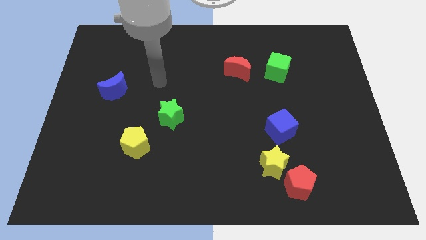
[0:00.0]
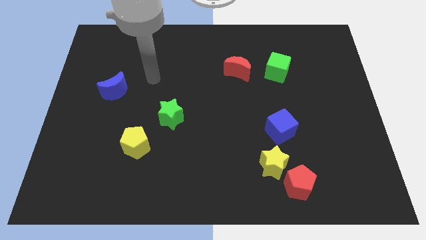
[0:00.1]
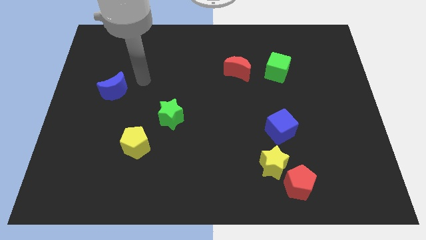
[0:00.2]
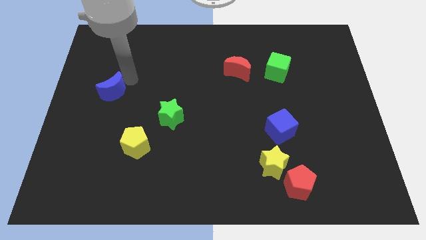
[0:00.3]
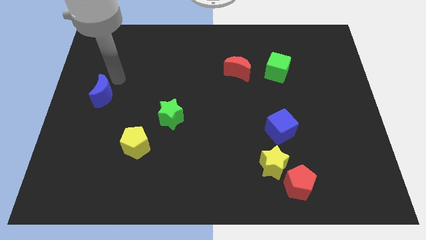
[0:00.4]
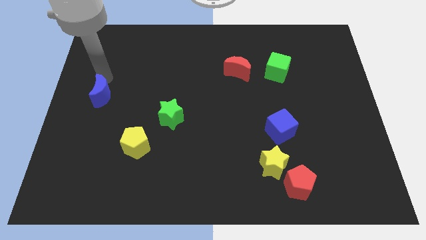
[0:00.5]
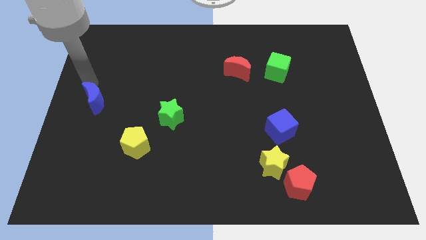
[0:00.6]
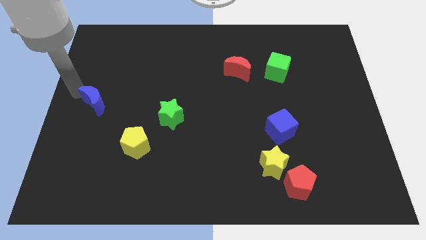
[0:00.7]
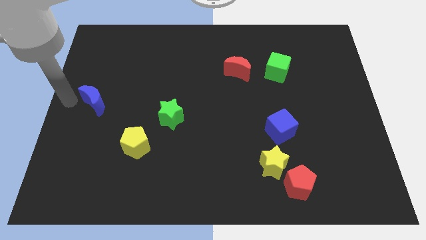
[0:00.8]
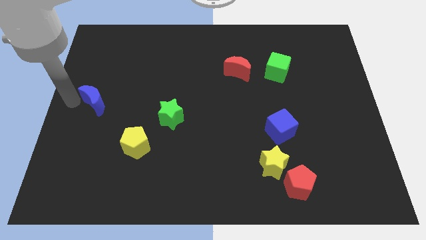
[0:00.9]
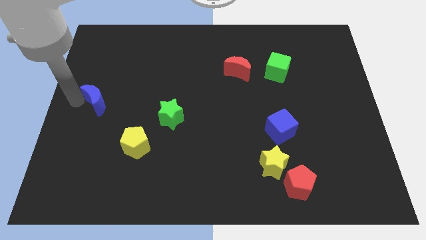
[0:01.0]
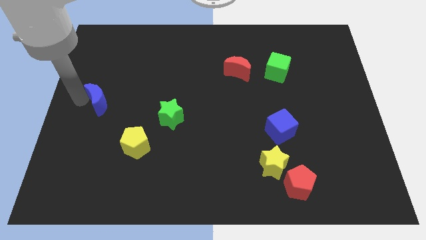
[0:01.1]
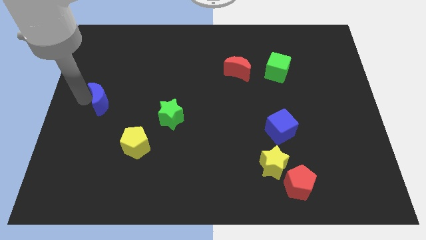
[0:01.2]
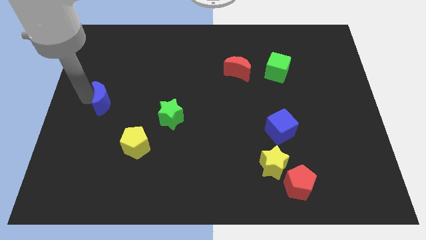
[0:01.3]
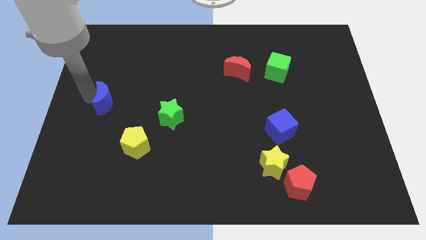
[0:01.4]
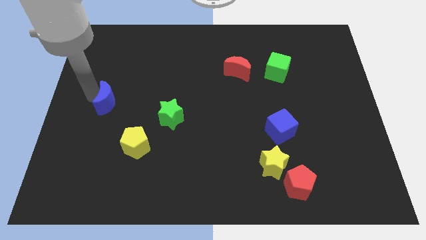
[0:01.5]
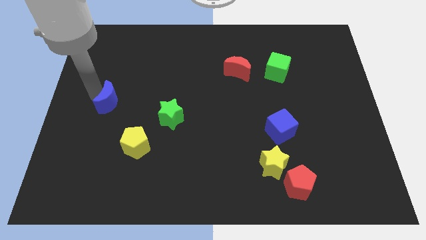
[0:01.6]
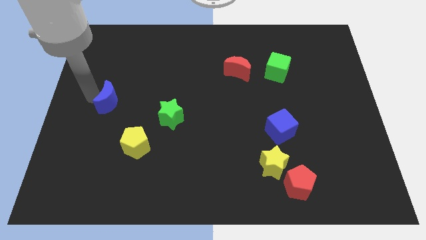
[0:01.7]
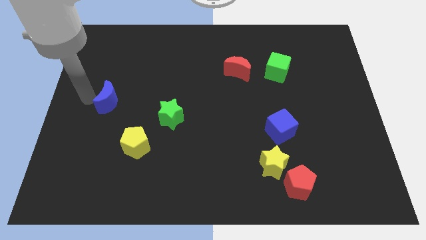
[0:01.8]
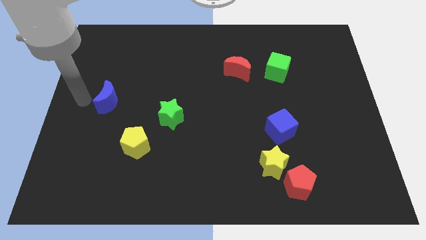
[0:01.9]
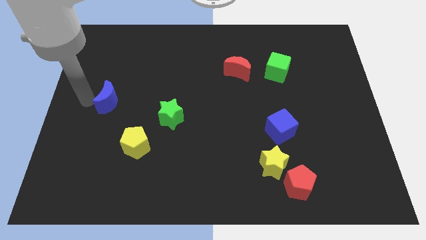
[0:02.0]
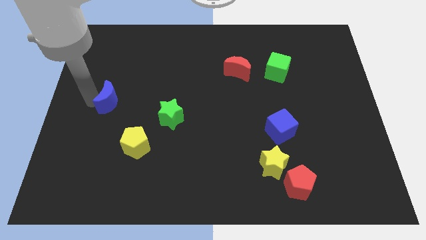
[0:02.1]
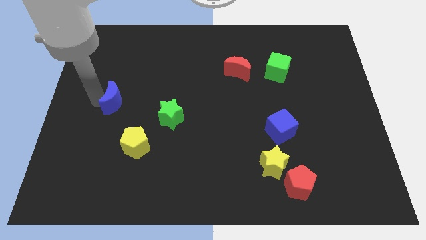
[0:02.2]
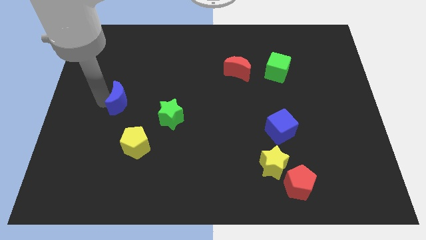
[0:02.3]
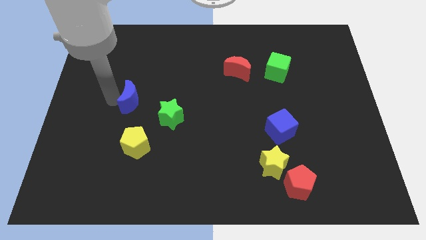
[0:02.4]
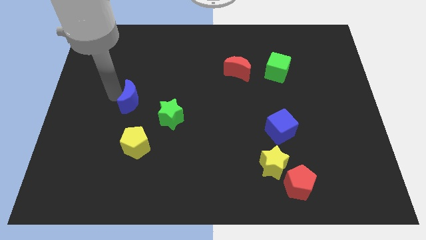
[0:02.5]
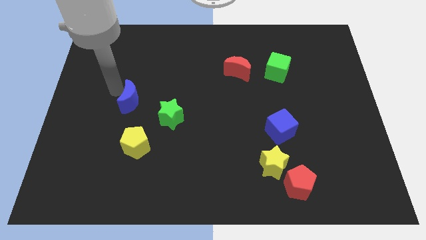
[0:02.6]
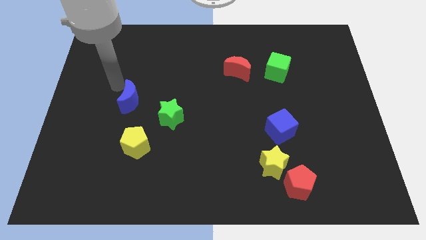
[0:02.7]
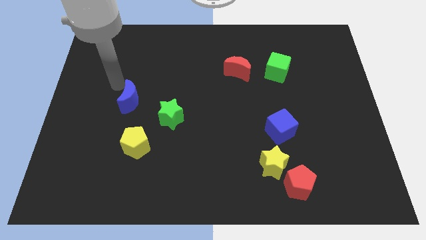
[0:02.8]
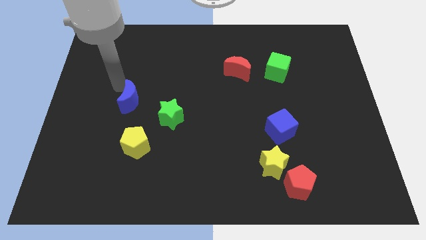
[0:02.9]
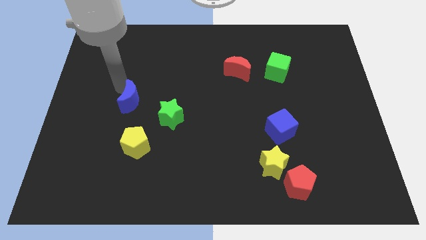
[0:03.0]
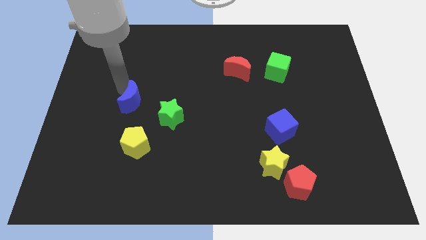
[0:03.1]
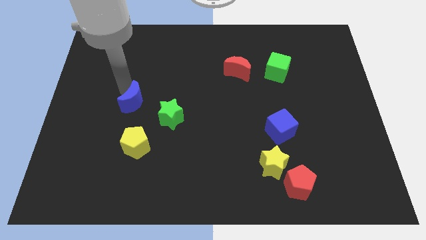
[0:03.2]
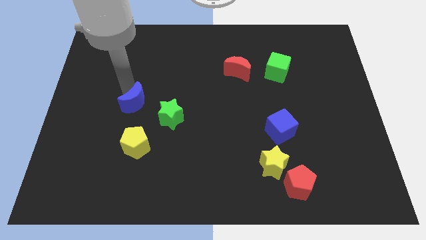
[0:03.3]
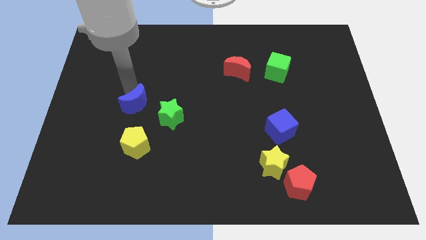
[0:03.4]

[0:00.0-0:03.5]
push the blue moon somewhat down and then to the right

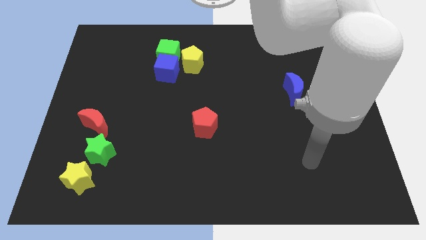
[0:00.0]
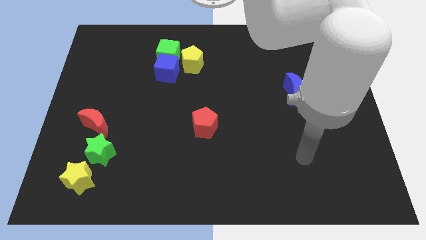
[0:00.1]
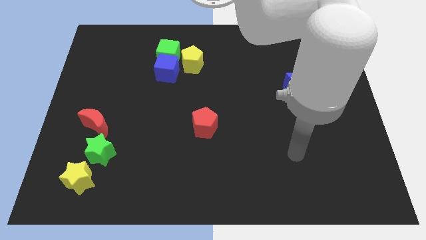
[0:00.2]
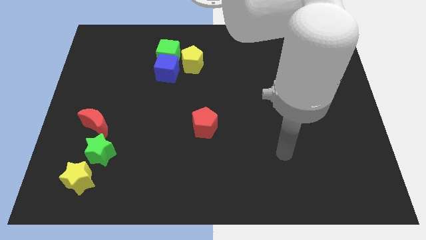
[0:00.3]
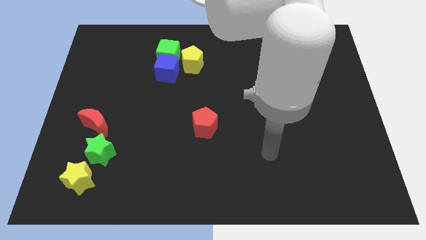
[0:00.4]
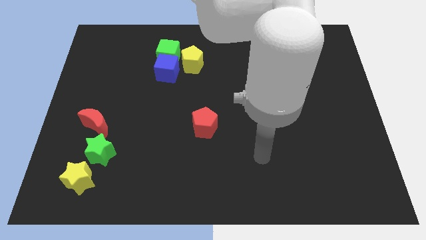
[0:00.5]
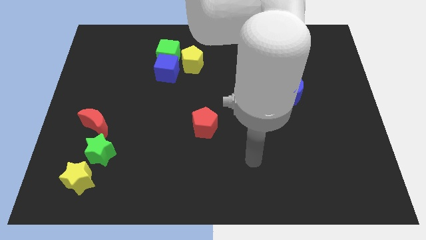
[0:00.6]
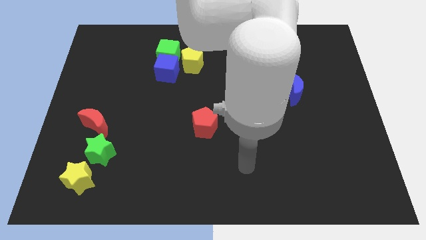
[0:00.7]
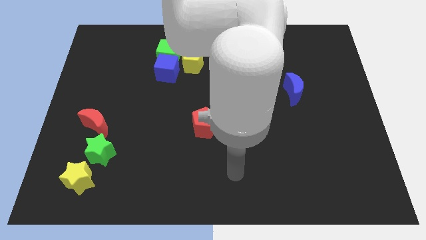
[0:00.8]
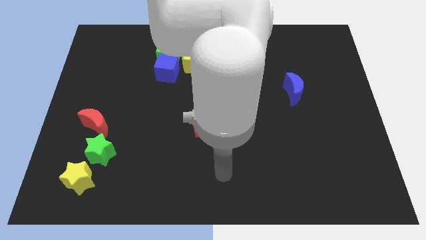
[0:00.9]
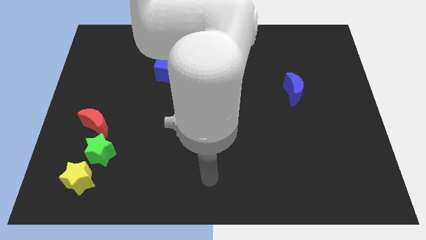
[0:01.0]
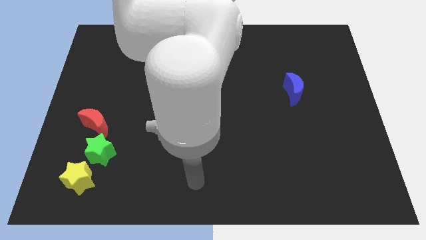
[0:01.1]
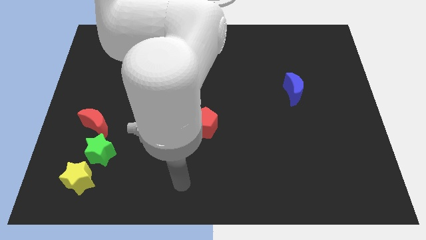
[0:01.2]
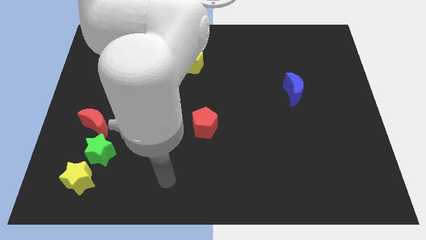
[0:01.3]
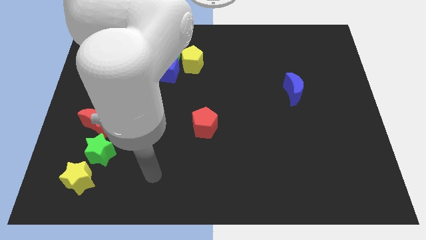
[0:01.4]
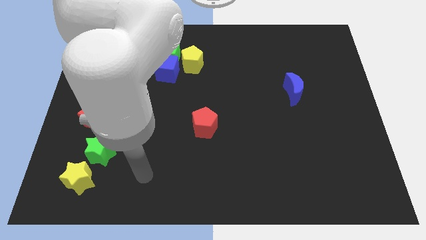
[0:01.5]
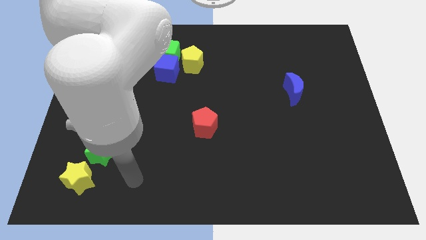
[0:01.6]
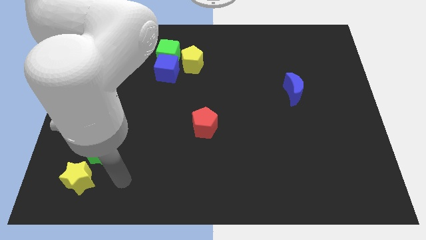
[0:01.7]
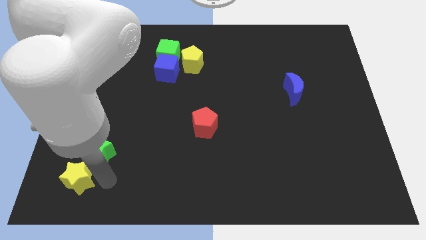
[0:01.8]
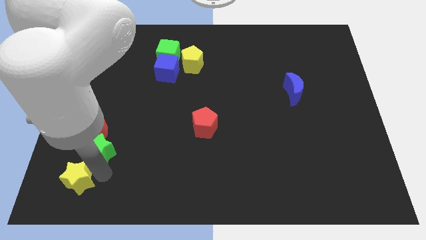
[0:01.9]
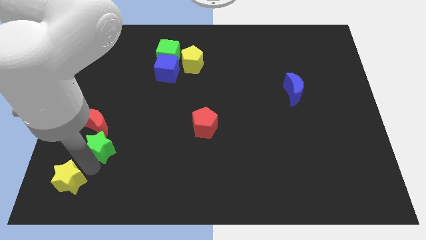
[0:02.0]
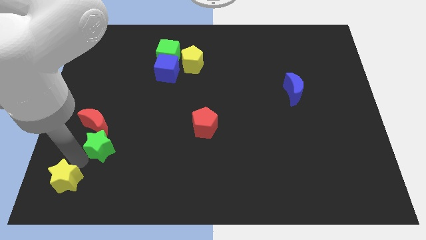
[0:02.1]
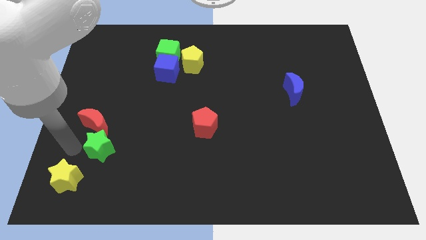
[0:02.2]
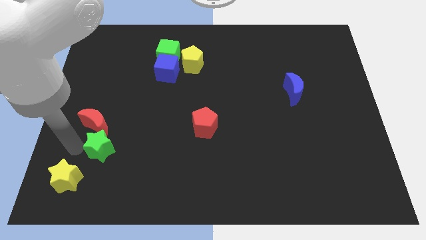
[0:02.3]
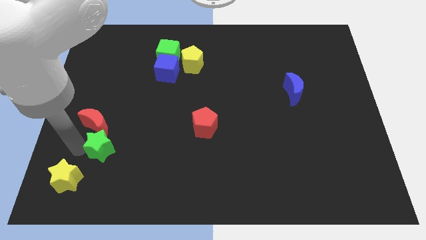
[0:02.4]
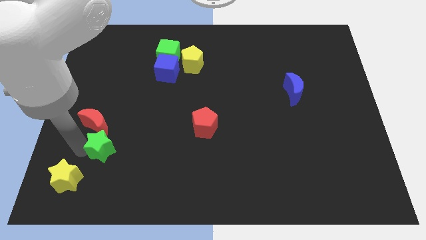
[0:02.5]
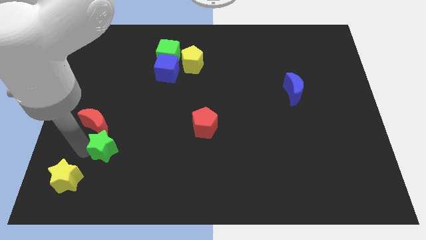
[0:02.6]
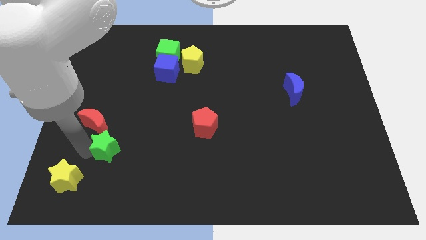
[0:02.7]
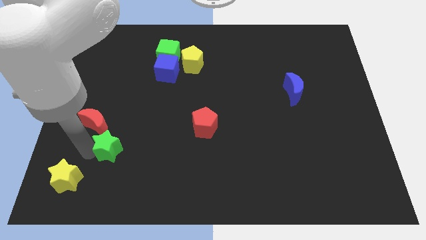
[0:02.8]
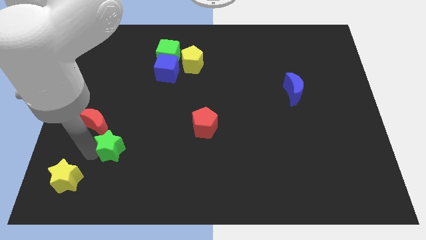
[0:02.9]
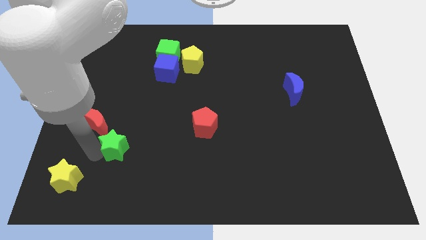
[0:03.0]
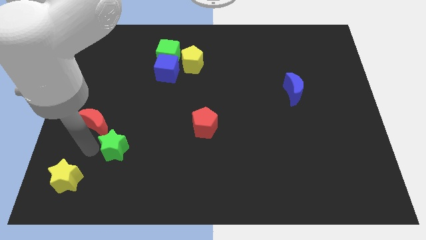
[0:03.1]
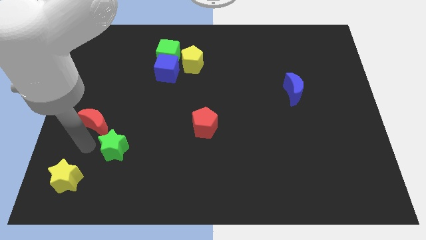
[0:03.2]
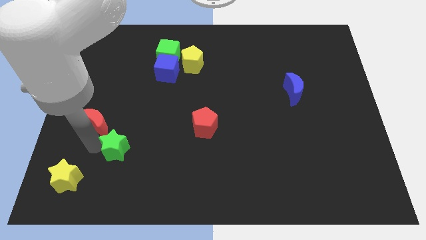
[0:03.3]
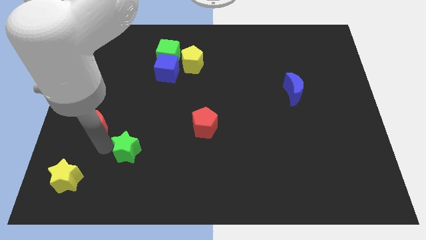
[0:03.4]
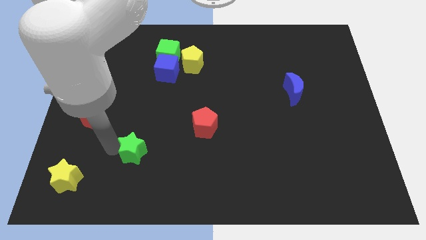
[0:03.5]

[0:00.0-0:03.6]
slightly move the green star right

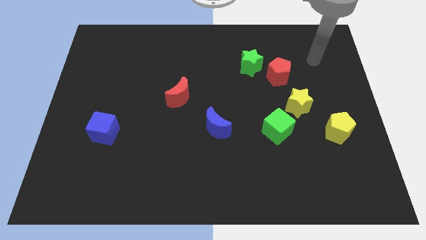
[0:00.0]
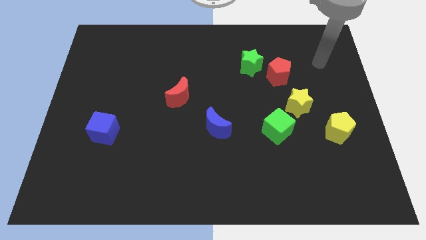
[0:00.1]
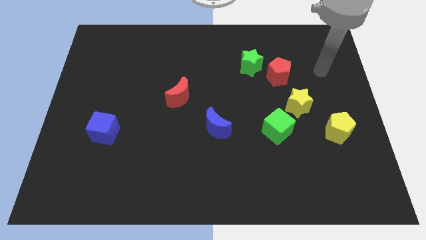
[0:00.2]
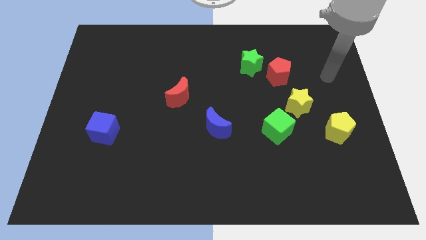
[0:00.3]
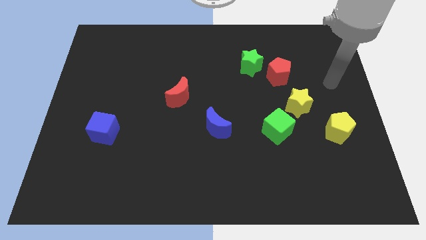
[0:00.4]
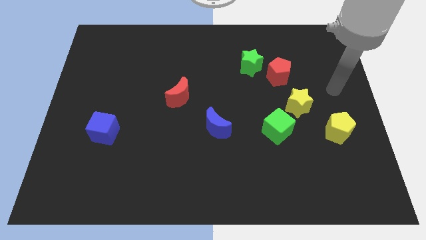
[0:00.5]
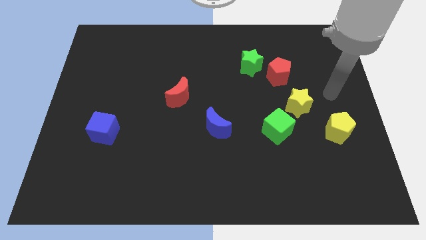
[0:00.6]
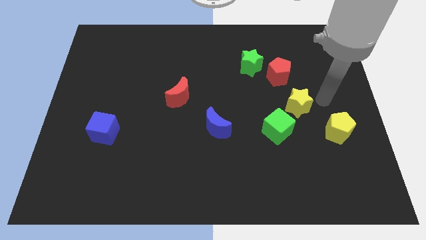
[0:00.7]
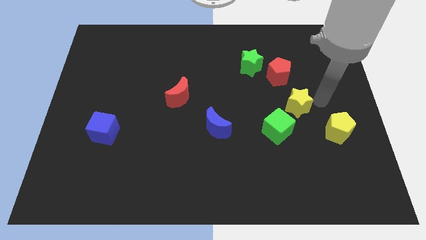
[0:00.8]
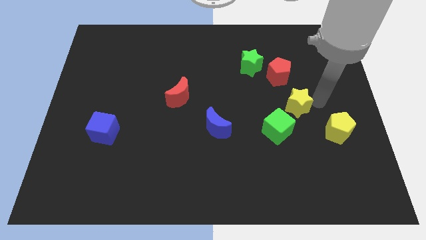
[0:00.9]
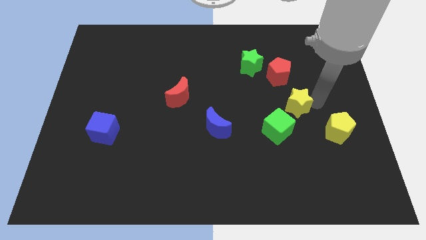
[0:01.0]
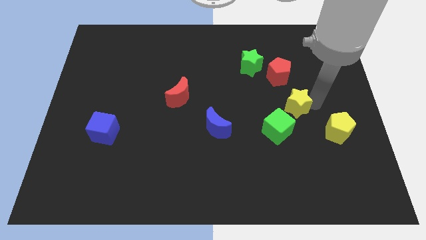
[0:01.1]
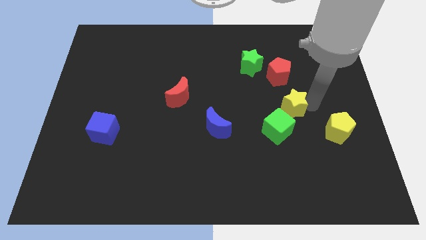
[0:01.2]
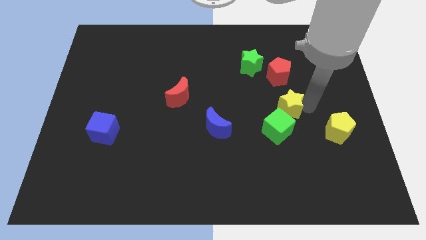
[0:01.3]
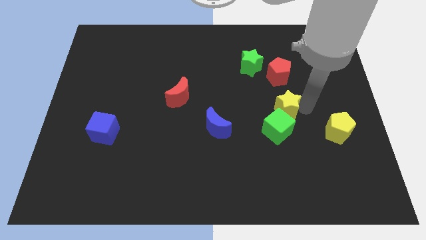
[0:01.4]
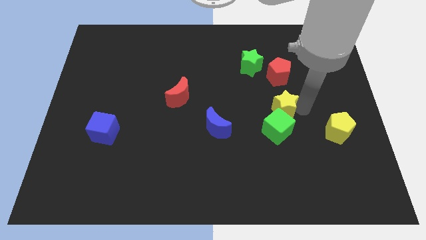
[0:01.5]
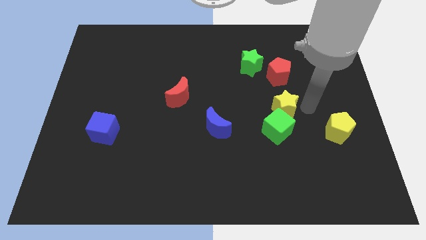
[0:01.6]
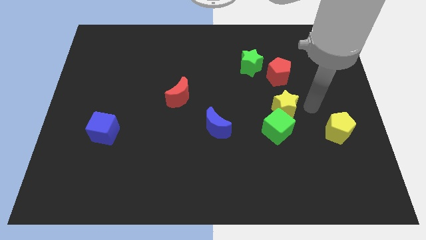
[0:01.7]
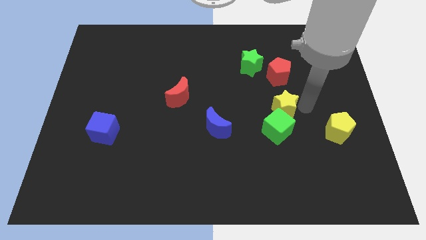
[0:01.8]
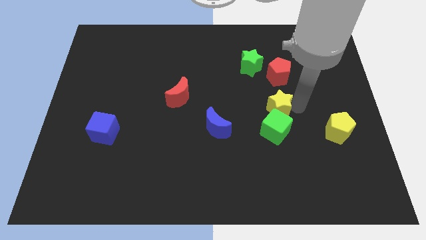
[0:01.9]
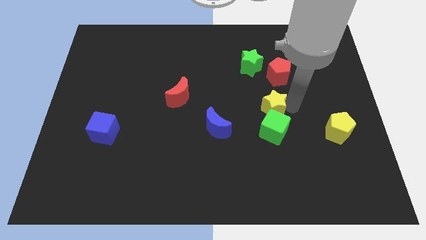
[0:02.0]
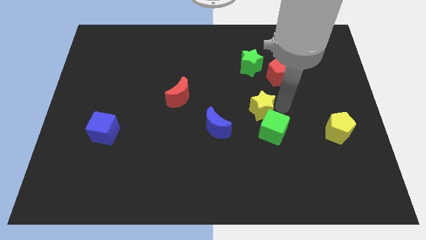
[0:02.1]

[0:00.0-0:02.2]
slightly push the yellow star to the left
